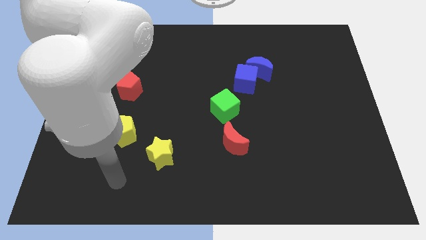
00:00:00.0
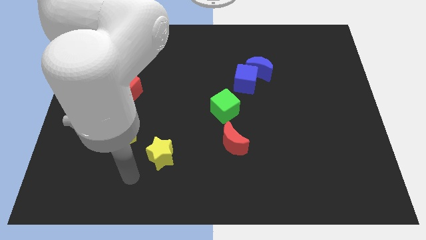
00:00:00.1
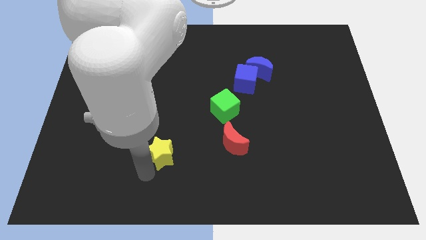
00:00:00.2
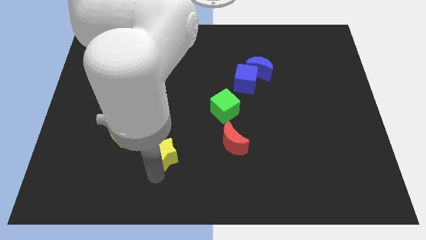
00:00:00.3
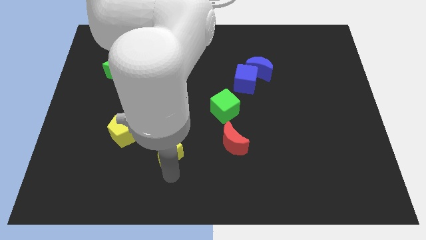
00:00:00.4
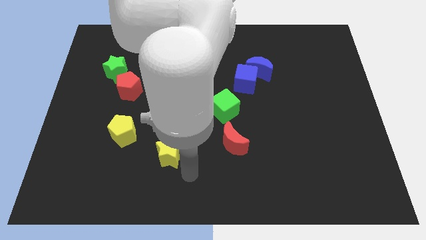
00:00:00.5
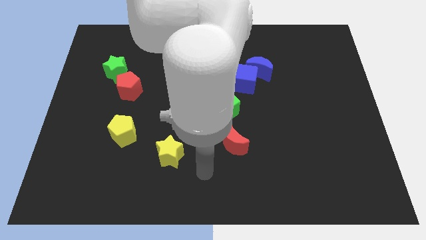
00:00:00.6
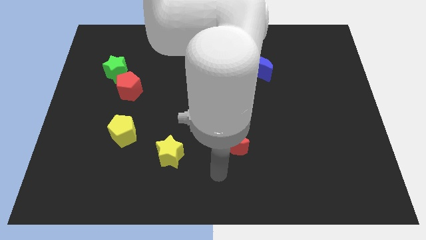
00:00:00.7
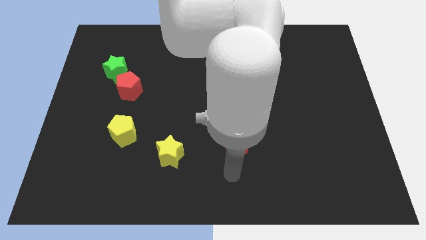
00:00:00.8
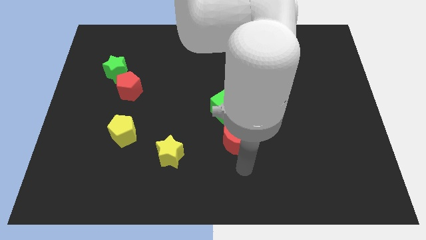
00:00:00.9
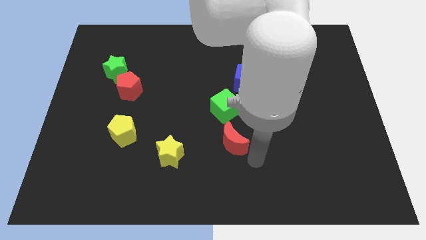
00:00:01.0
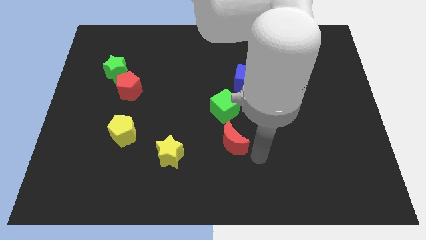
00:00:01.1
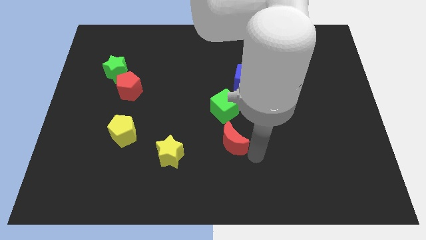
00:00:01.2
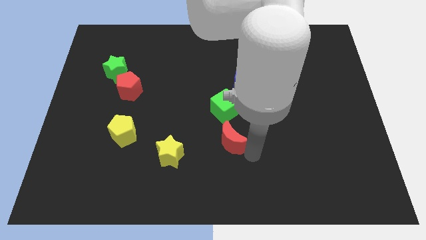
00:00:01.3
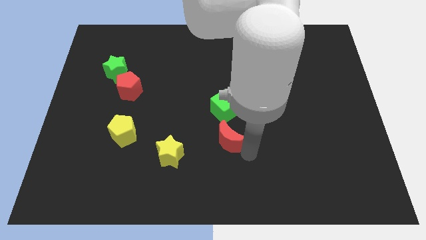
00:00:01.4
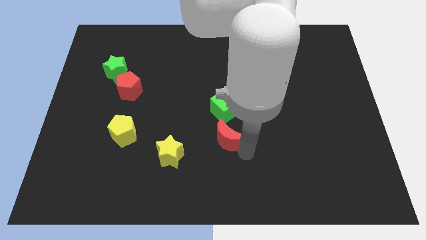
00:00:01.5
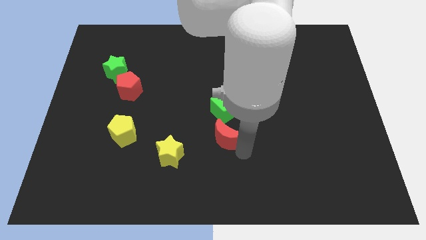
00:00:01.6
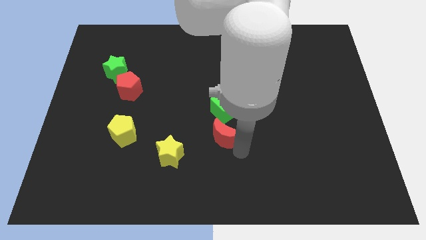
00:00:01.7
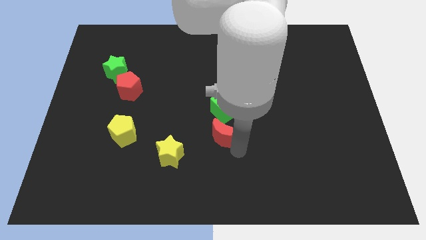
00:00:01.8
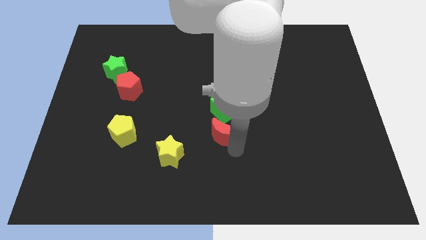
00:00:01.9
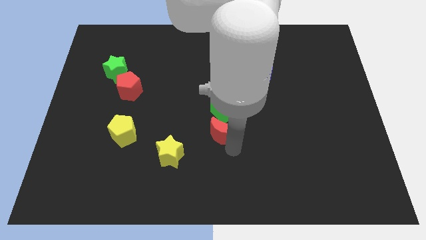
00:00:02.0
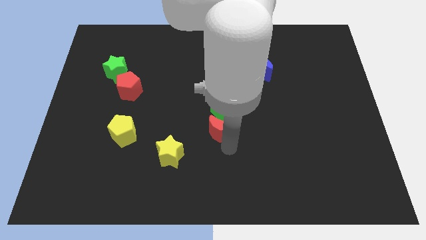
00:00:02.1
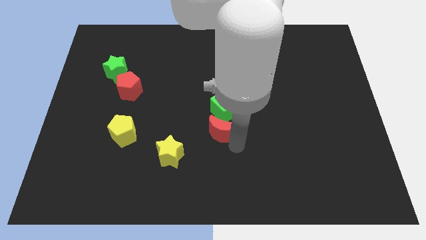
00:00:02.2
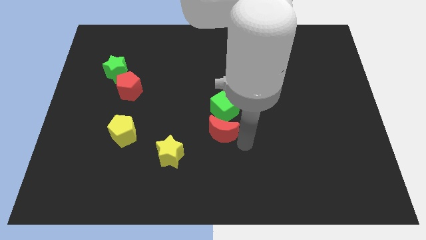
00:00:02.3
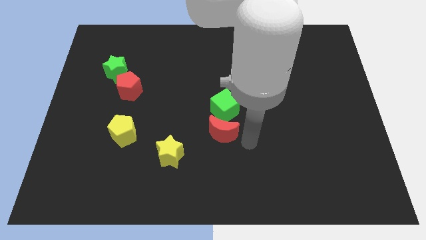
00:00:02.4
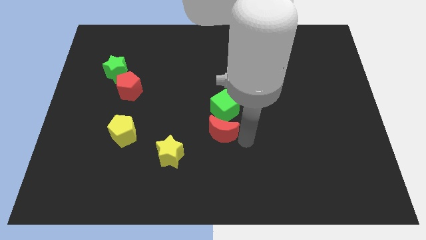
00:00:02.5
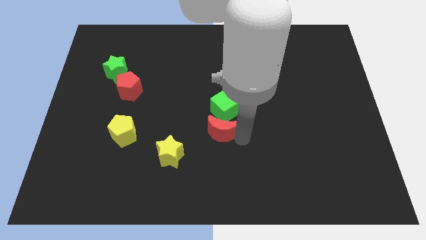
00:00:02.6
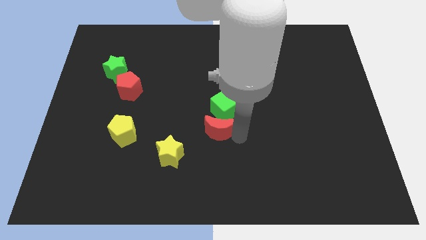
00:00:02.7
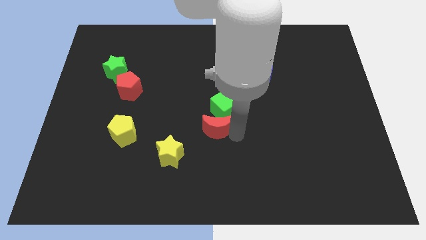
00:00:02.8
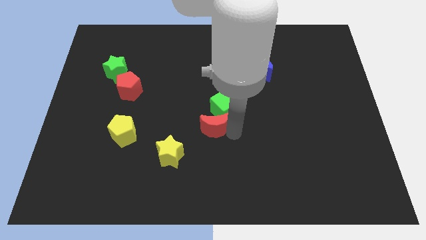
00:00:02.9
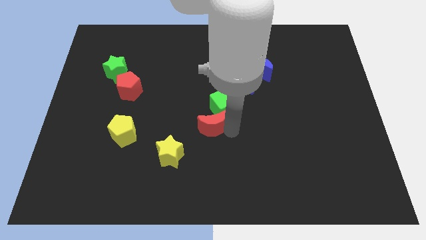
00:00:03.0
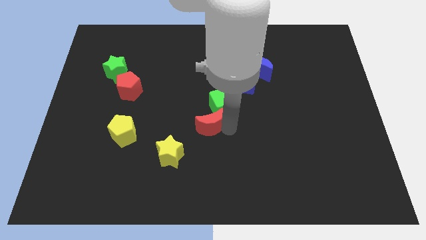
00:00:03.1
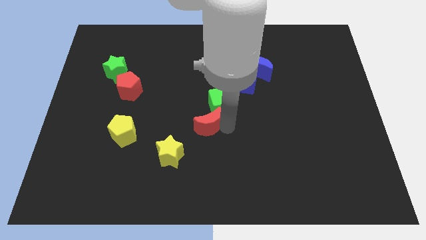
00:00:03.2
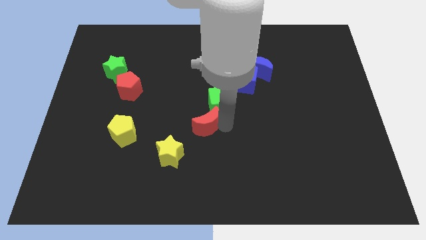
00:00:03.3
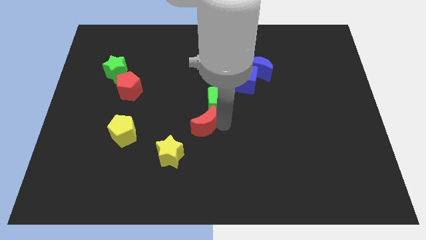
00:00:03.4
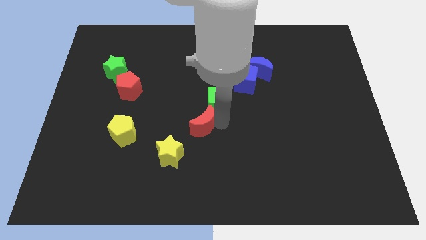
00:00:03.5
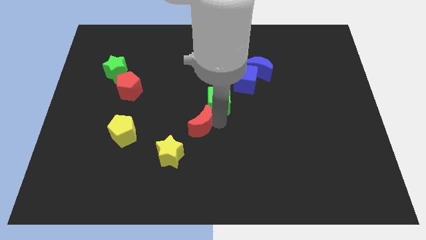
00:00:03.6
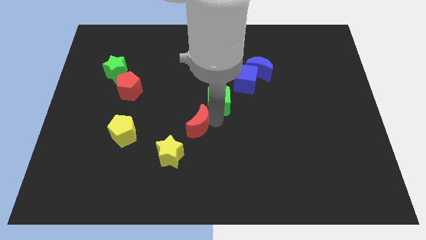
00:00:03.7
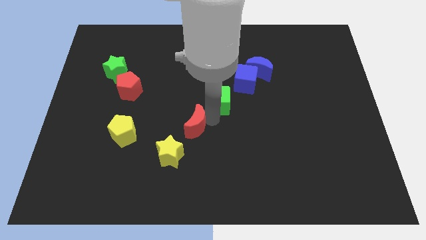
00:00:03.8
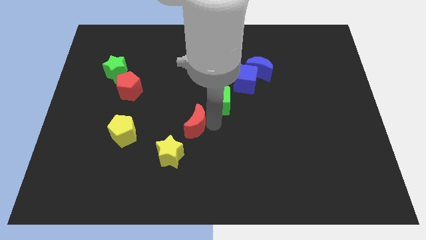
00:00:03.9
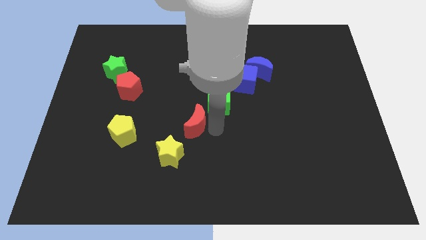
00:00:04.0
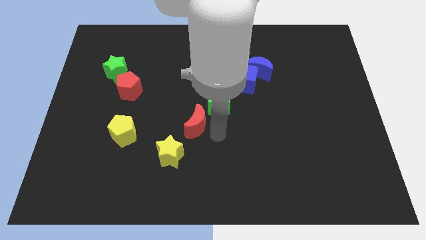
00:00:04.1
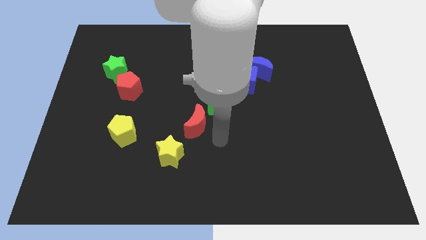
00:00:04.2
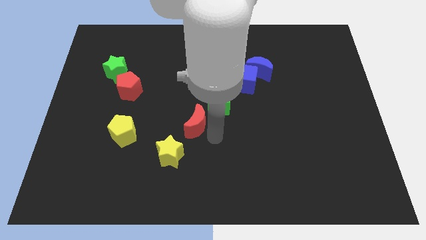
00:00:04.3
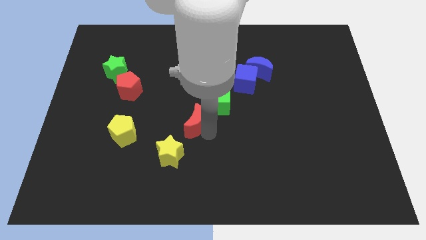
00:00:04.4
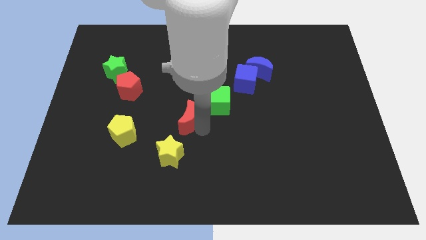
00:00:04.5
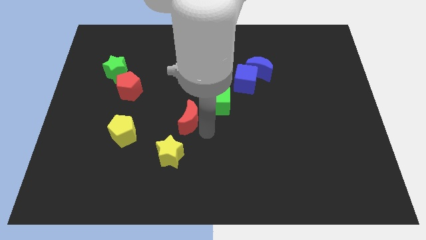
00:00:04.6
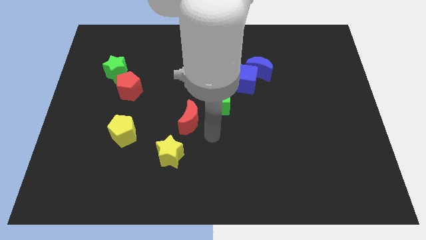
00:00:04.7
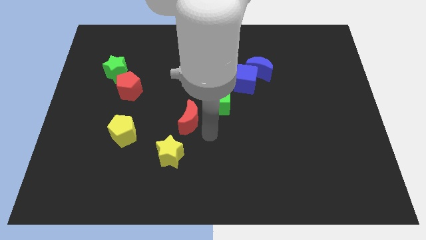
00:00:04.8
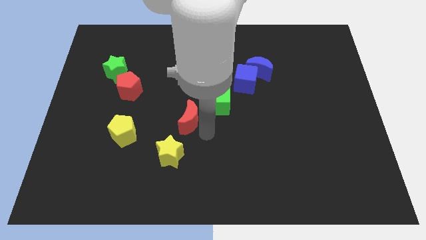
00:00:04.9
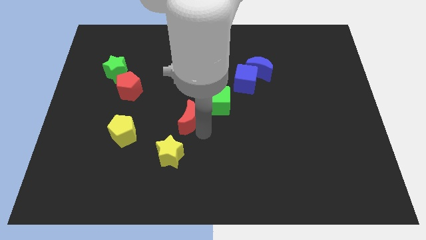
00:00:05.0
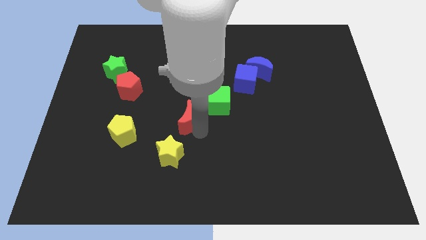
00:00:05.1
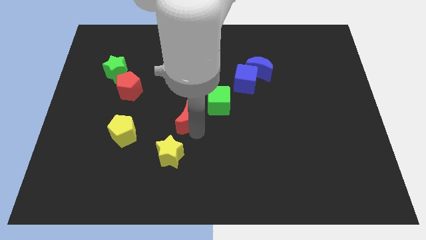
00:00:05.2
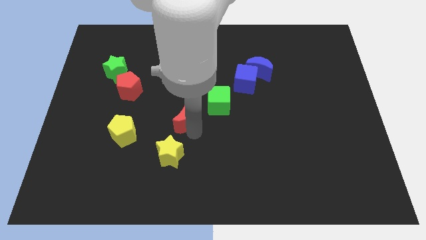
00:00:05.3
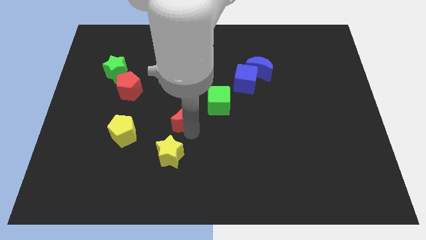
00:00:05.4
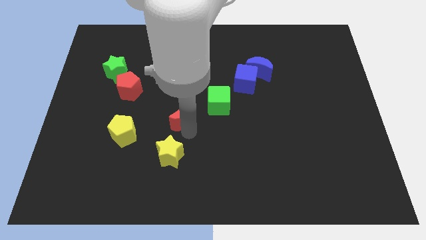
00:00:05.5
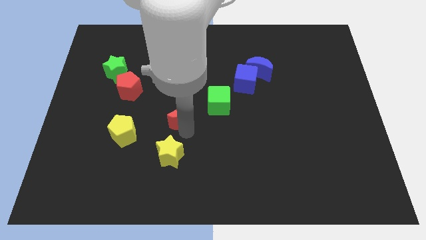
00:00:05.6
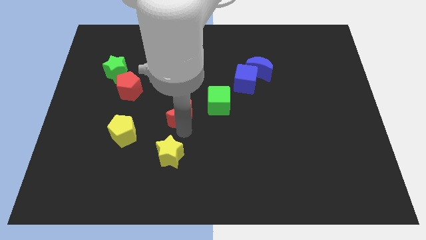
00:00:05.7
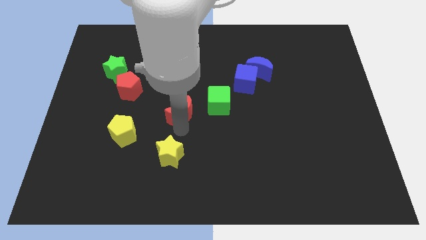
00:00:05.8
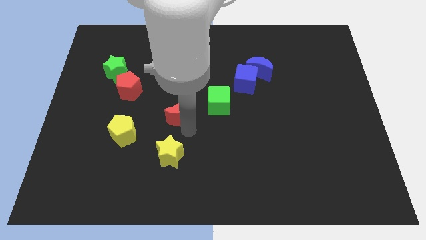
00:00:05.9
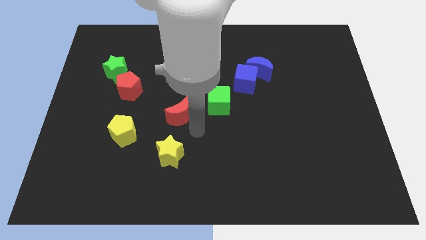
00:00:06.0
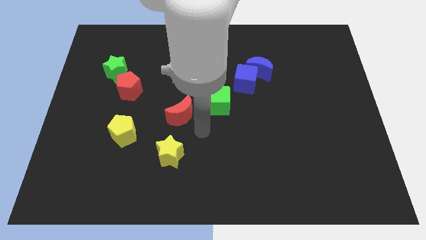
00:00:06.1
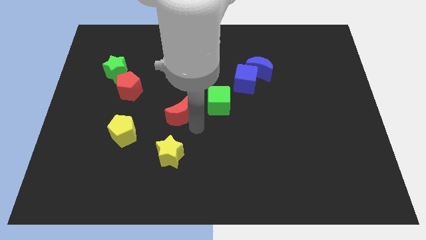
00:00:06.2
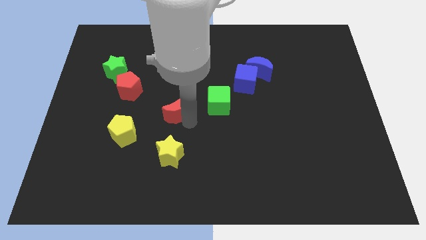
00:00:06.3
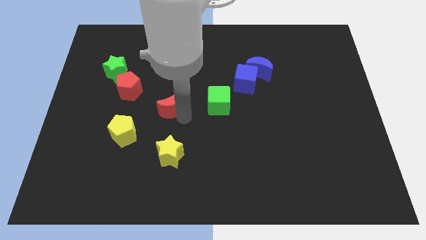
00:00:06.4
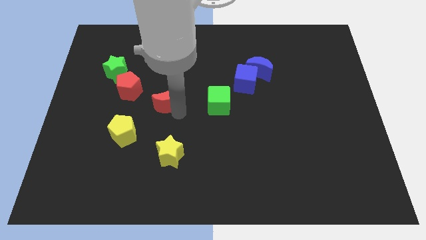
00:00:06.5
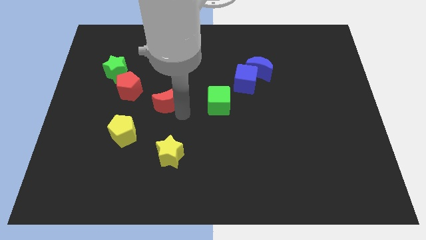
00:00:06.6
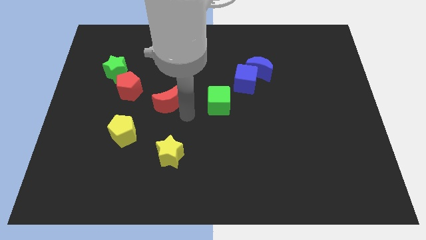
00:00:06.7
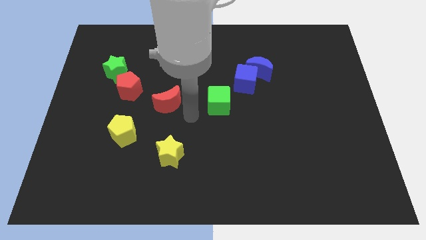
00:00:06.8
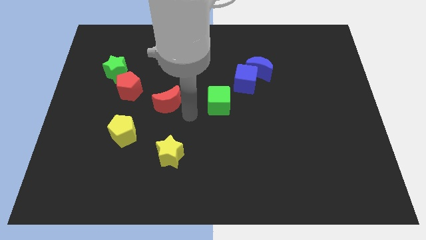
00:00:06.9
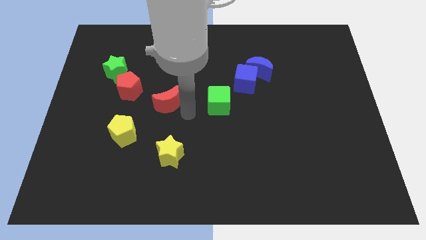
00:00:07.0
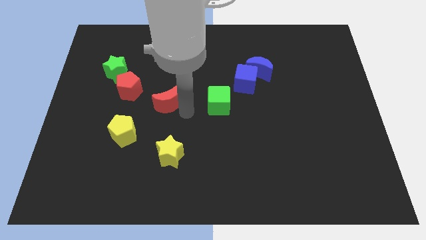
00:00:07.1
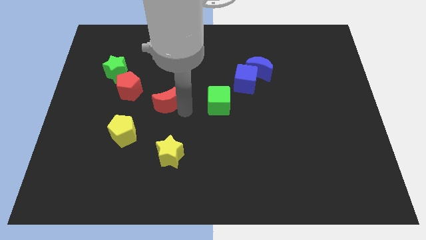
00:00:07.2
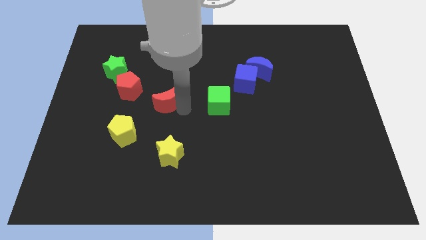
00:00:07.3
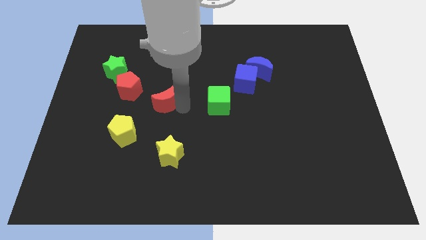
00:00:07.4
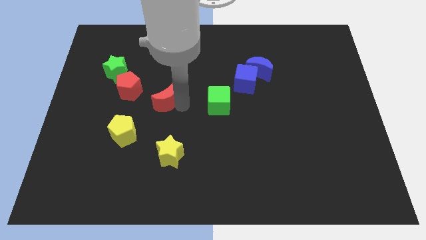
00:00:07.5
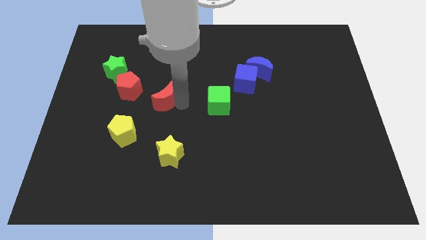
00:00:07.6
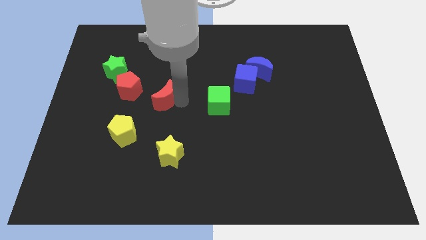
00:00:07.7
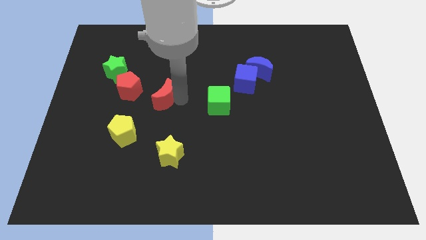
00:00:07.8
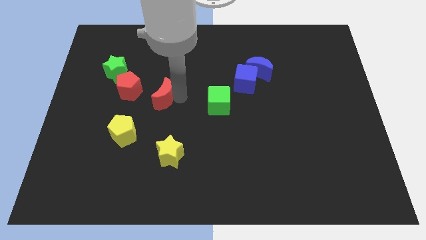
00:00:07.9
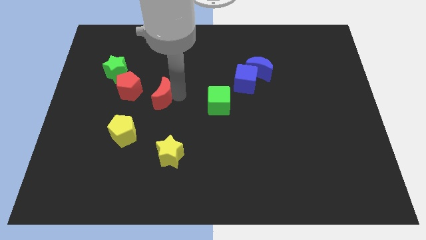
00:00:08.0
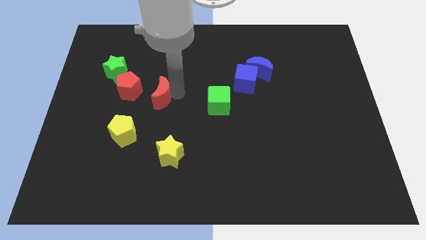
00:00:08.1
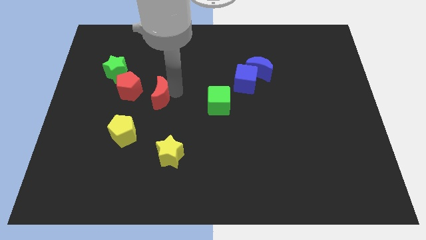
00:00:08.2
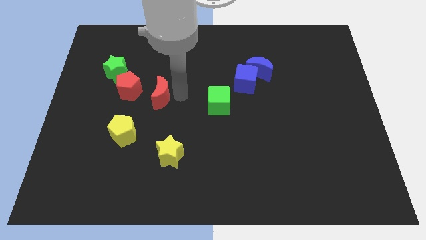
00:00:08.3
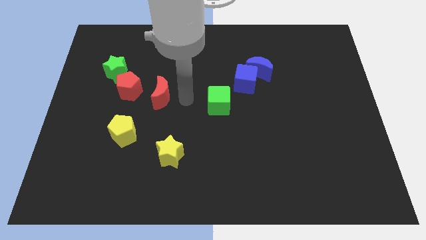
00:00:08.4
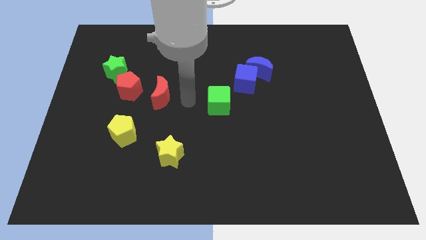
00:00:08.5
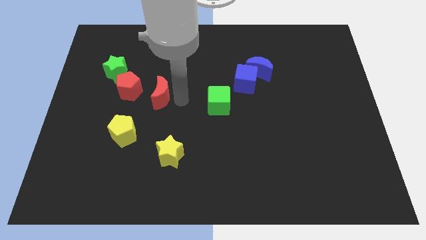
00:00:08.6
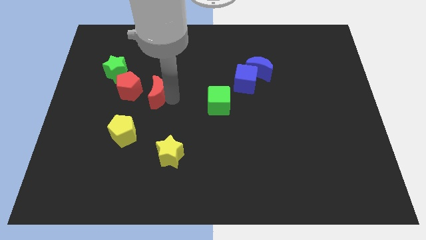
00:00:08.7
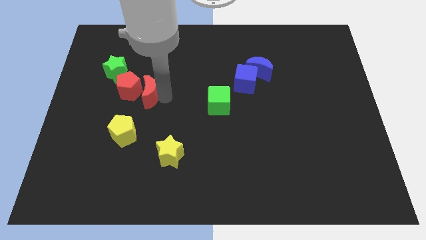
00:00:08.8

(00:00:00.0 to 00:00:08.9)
push the red moon close to the red pentagon
